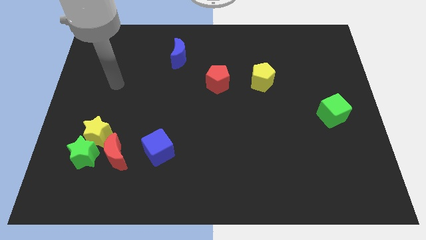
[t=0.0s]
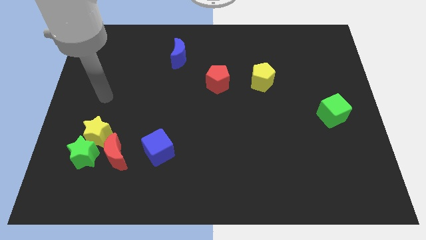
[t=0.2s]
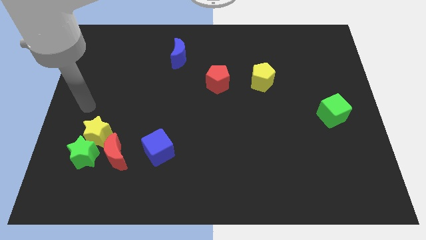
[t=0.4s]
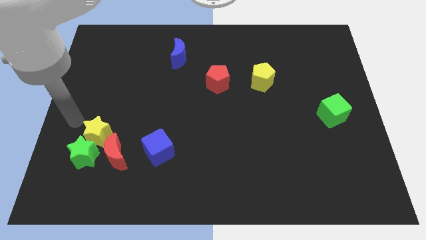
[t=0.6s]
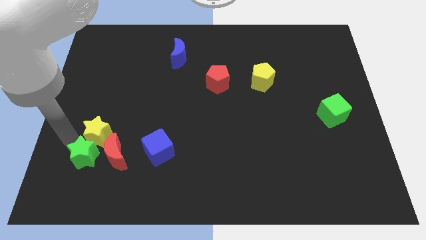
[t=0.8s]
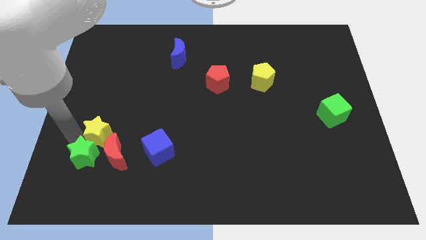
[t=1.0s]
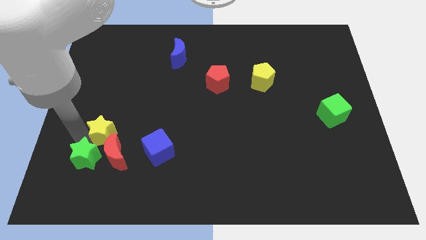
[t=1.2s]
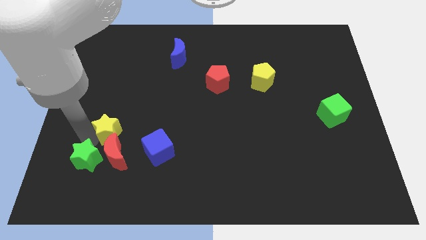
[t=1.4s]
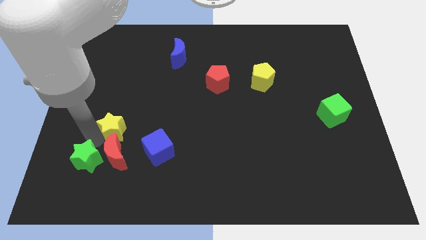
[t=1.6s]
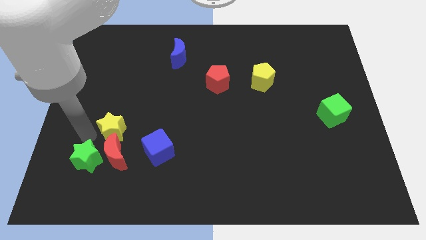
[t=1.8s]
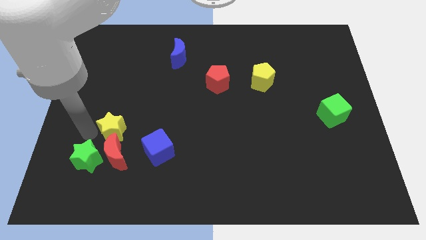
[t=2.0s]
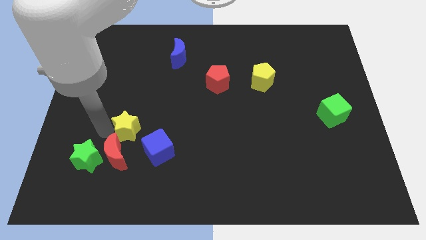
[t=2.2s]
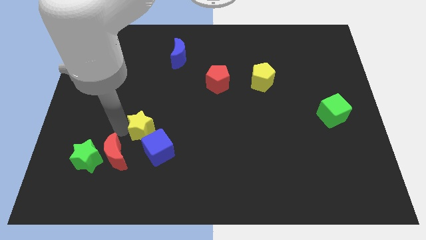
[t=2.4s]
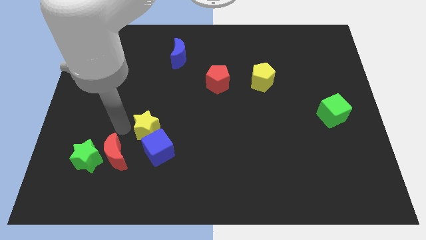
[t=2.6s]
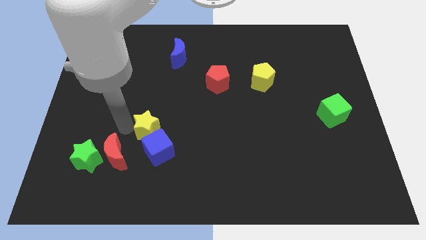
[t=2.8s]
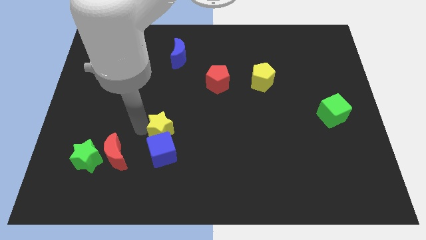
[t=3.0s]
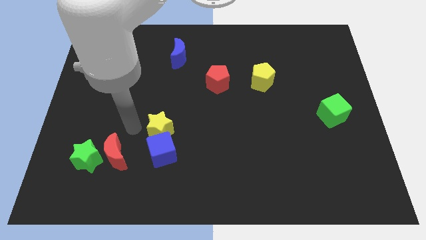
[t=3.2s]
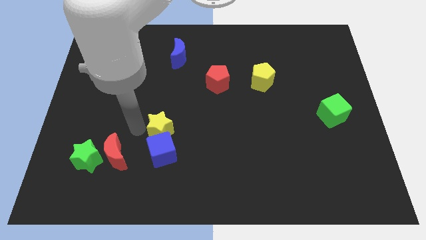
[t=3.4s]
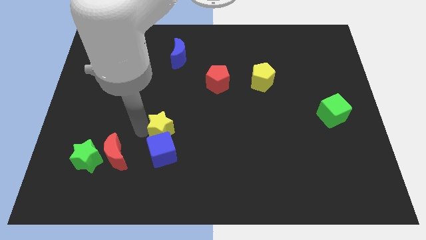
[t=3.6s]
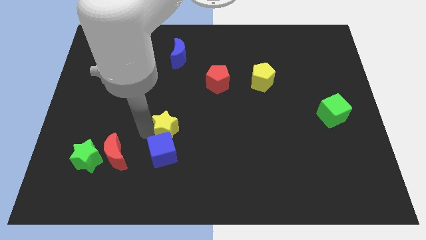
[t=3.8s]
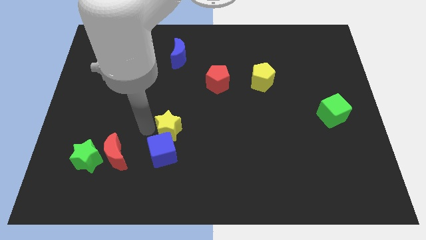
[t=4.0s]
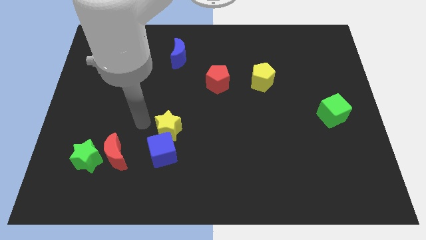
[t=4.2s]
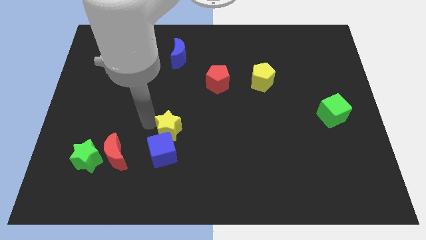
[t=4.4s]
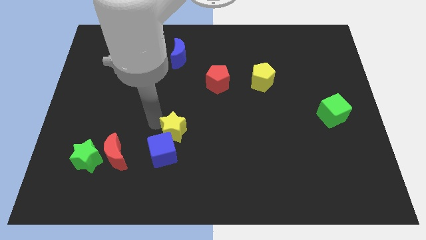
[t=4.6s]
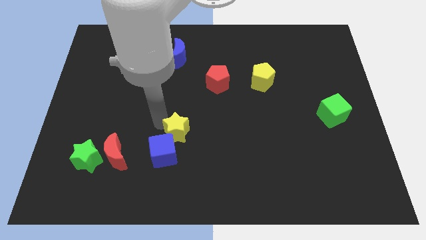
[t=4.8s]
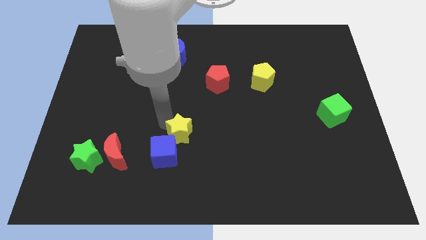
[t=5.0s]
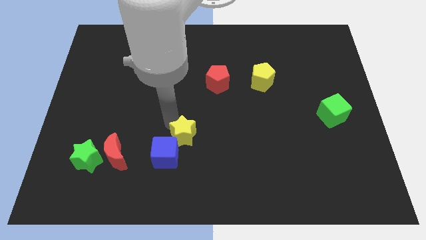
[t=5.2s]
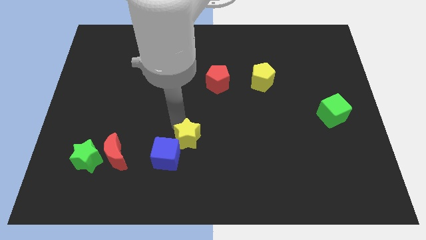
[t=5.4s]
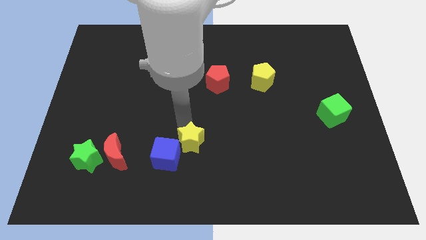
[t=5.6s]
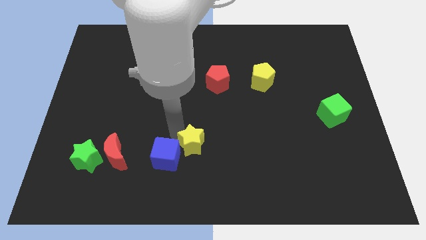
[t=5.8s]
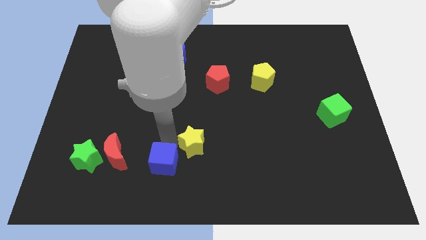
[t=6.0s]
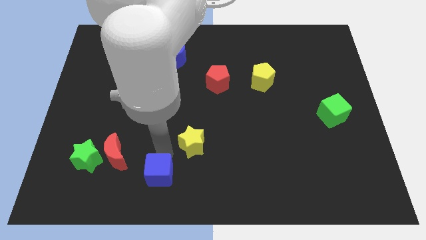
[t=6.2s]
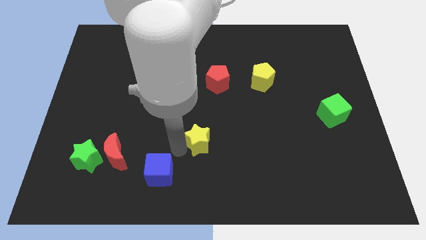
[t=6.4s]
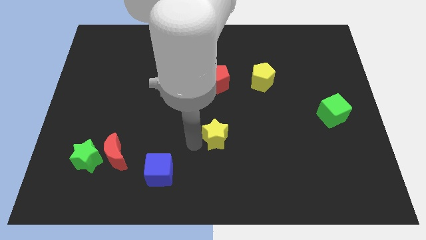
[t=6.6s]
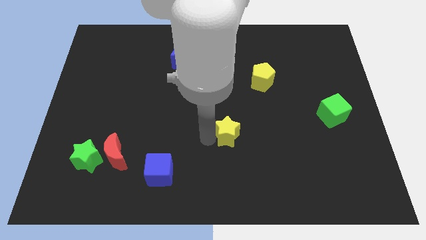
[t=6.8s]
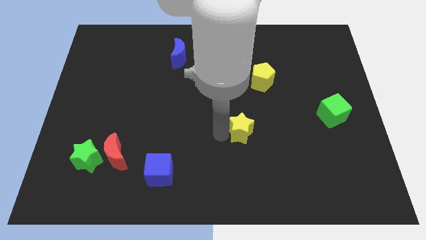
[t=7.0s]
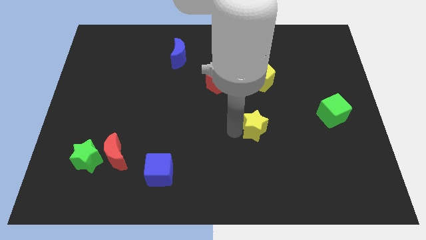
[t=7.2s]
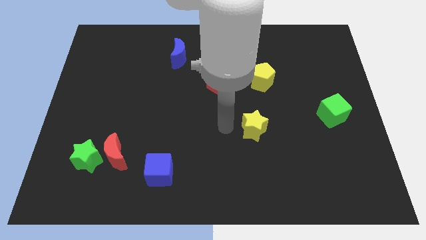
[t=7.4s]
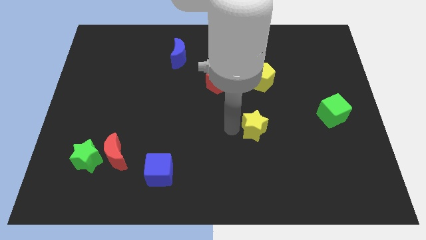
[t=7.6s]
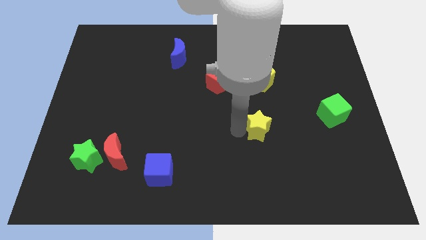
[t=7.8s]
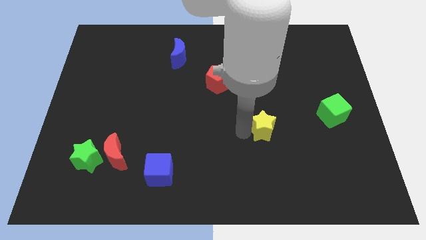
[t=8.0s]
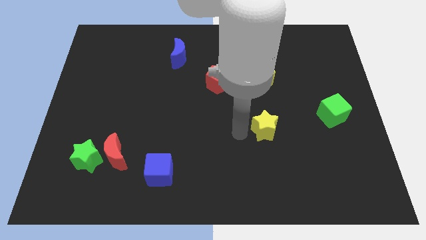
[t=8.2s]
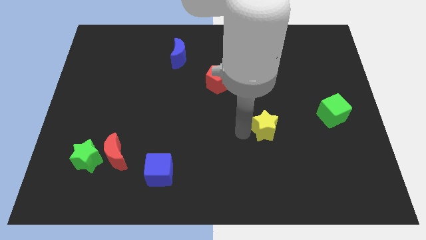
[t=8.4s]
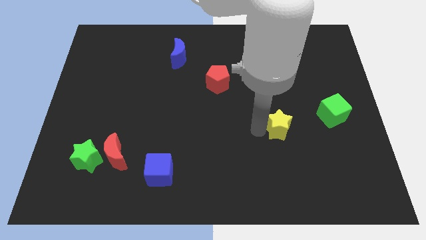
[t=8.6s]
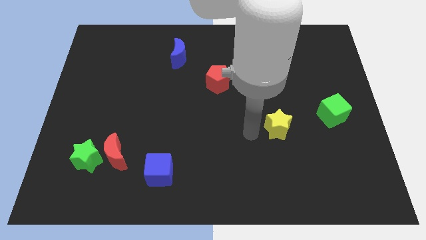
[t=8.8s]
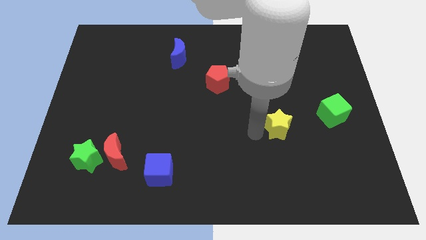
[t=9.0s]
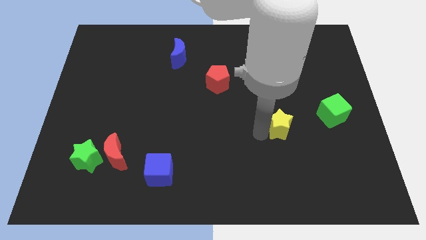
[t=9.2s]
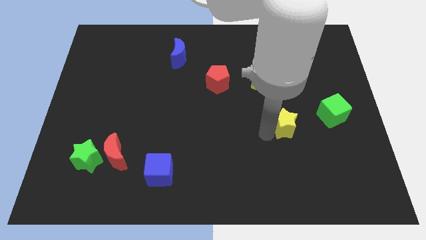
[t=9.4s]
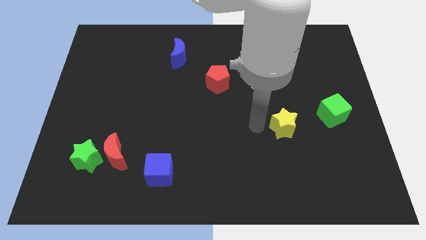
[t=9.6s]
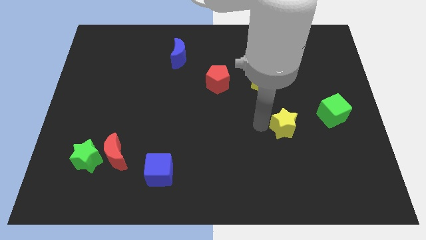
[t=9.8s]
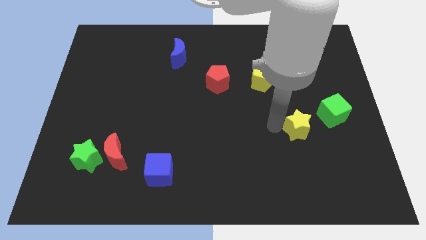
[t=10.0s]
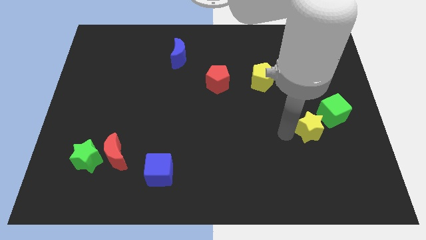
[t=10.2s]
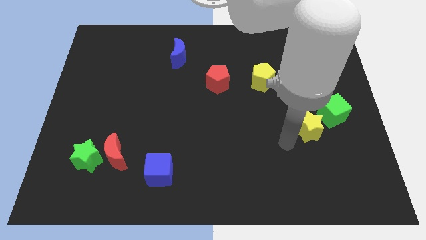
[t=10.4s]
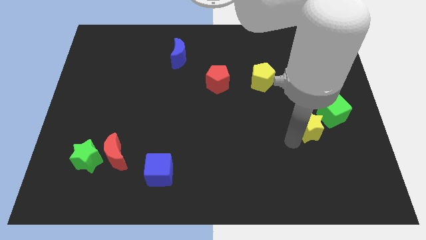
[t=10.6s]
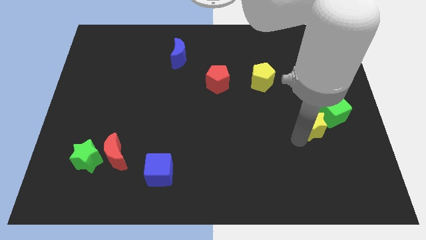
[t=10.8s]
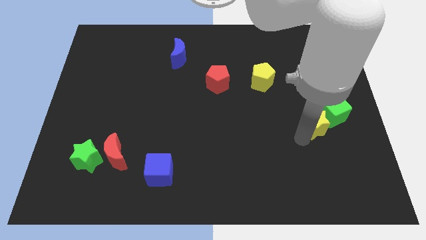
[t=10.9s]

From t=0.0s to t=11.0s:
move the yellow star close to the green cube

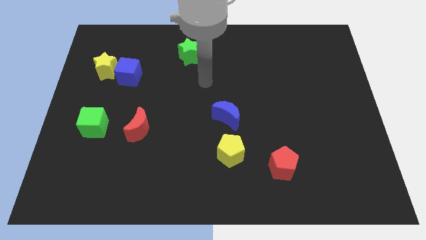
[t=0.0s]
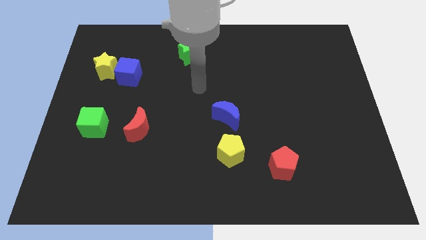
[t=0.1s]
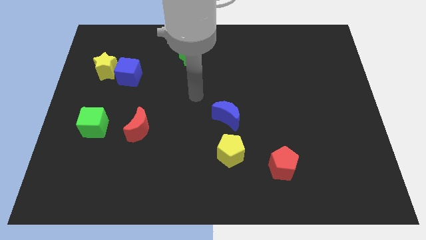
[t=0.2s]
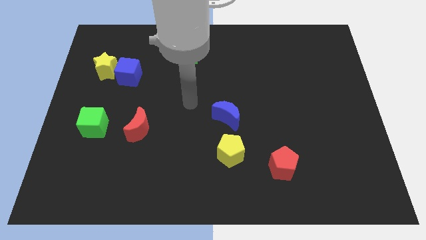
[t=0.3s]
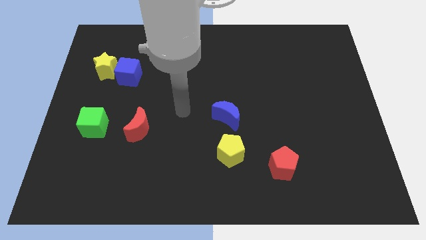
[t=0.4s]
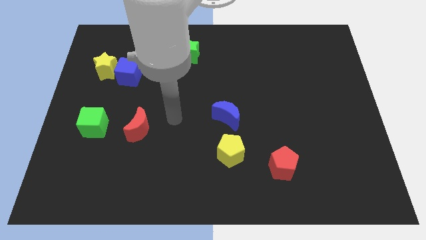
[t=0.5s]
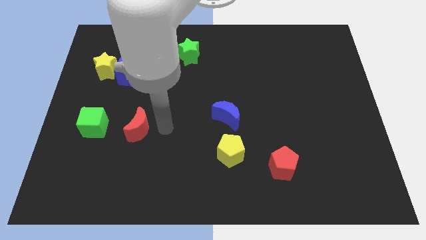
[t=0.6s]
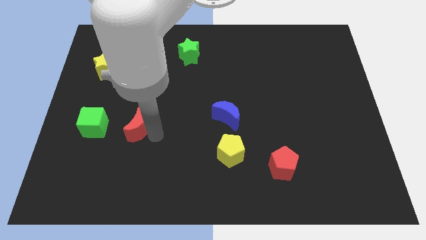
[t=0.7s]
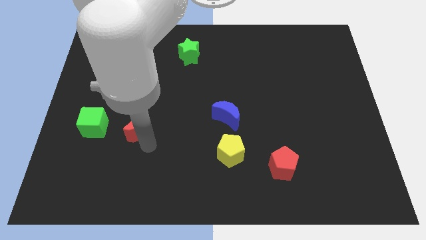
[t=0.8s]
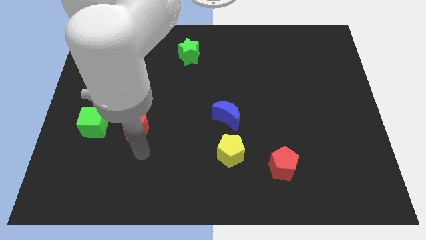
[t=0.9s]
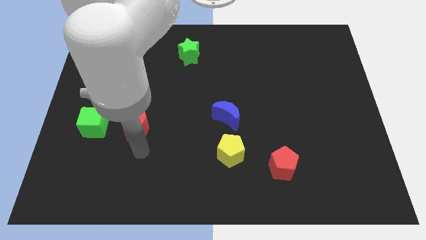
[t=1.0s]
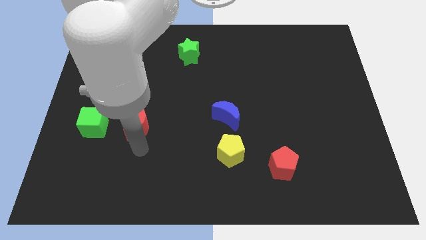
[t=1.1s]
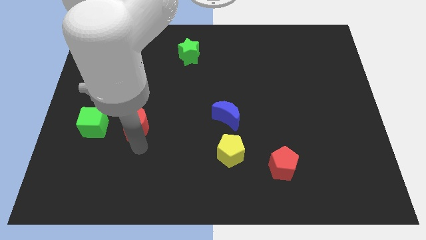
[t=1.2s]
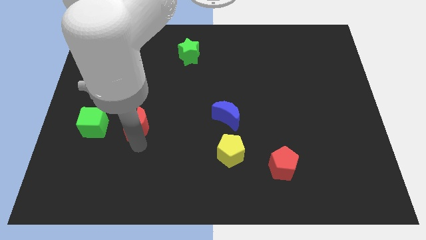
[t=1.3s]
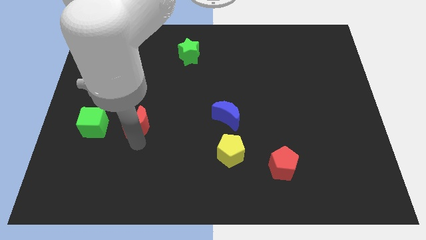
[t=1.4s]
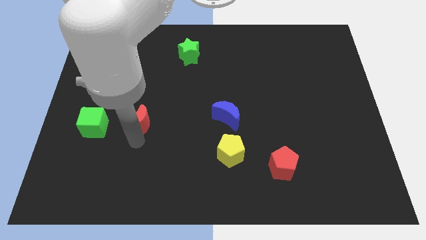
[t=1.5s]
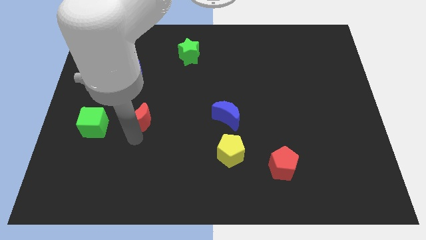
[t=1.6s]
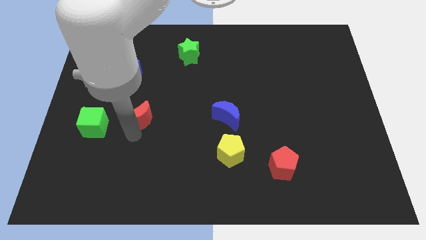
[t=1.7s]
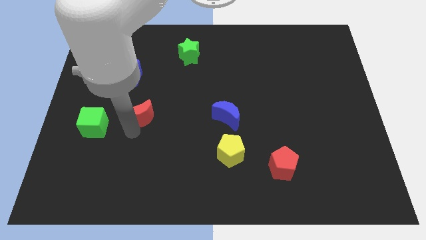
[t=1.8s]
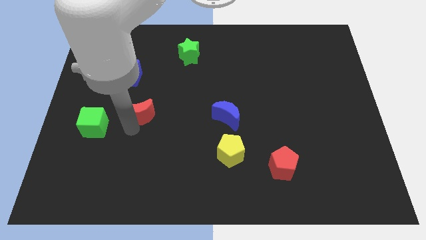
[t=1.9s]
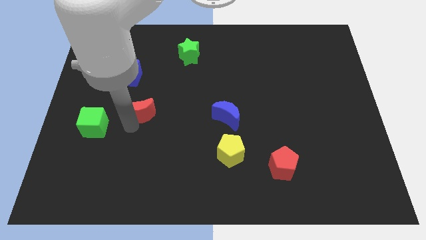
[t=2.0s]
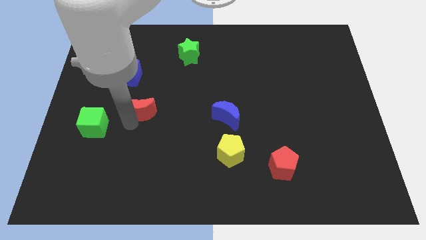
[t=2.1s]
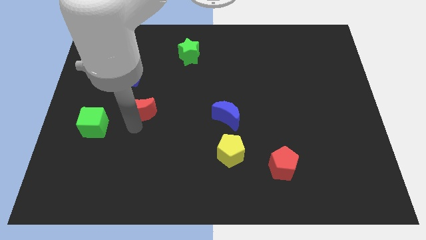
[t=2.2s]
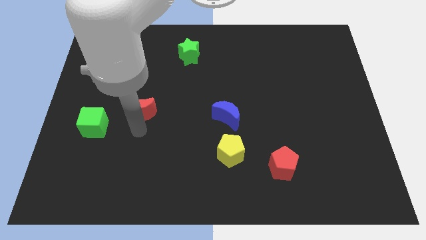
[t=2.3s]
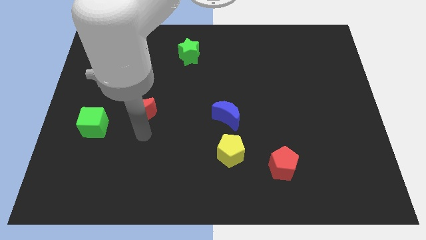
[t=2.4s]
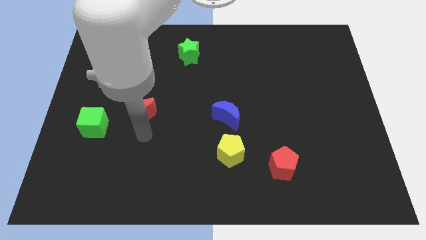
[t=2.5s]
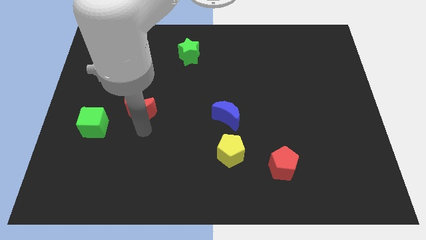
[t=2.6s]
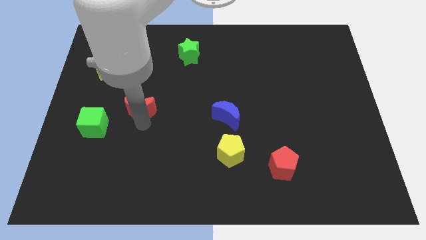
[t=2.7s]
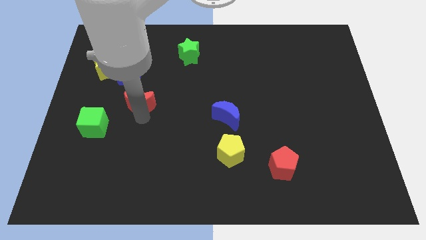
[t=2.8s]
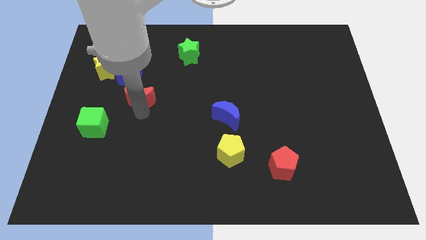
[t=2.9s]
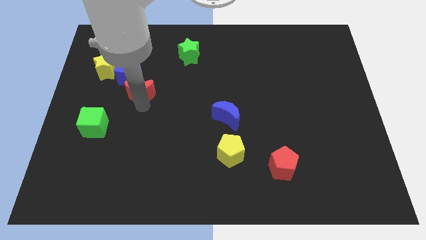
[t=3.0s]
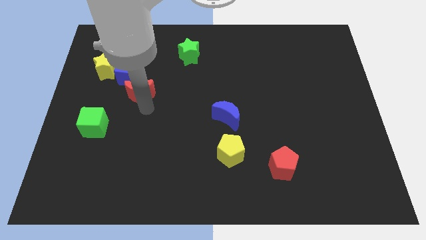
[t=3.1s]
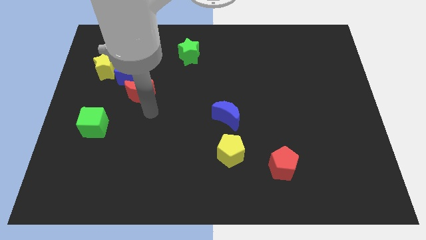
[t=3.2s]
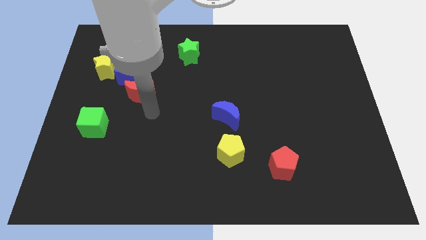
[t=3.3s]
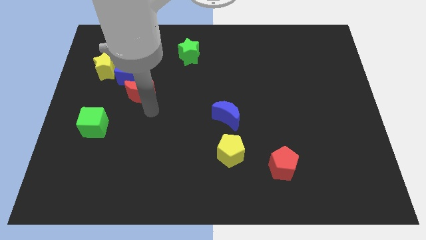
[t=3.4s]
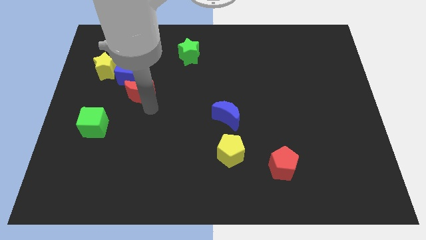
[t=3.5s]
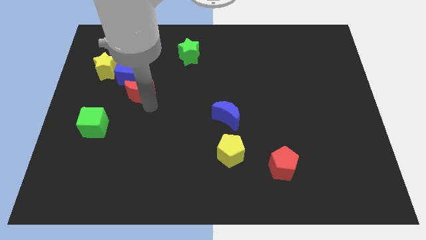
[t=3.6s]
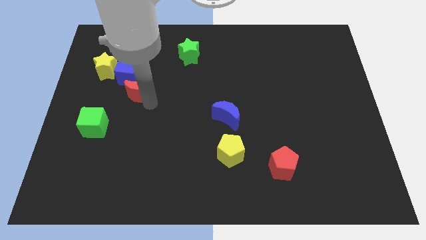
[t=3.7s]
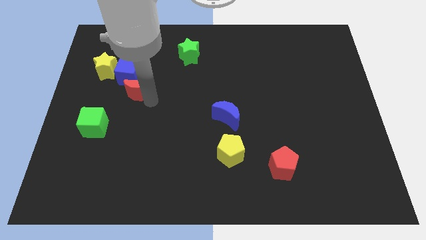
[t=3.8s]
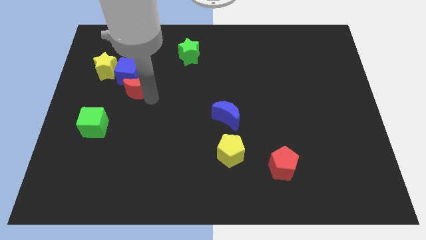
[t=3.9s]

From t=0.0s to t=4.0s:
slide the red moon close to the blue cube
